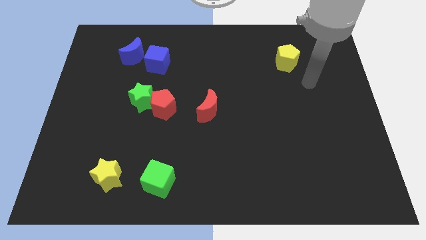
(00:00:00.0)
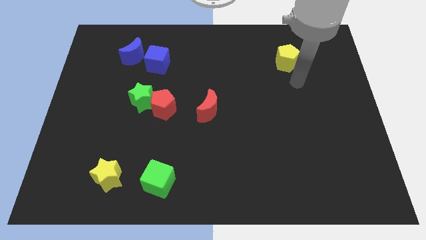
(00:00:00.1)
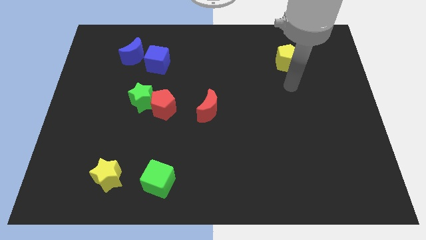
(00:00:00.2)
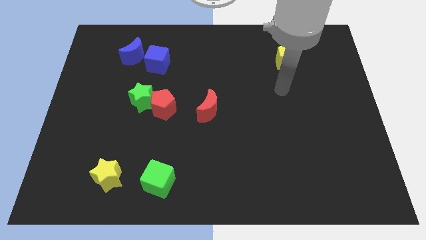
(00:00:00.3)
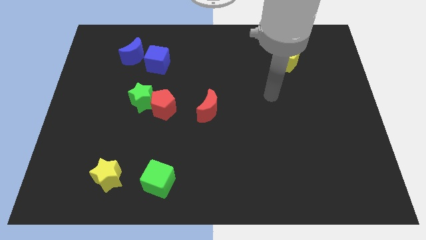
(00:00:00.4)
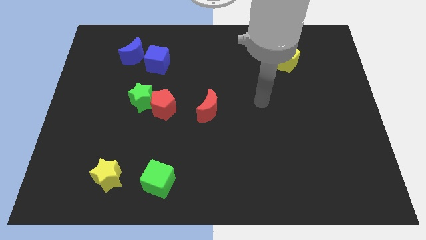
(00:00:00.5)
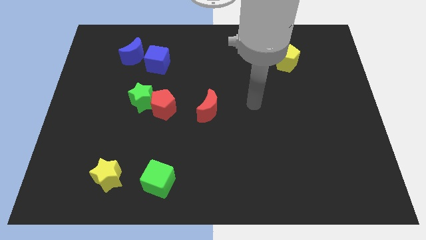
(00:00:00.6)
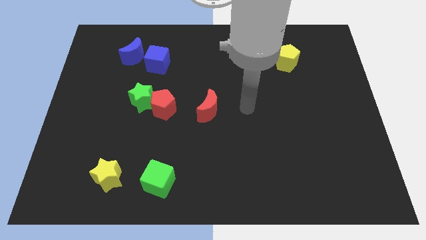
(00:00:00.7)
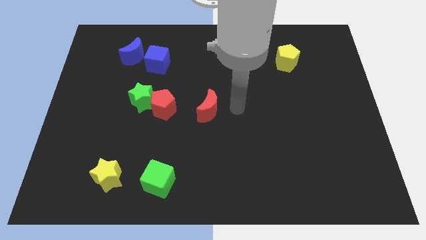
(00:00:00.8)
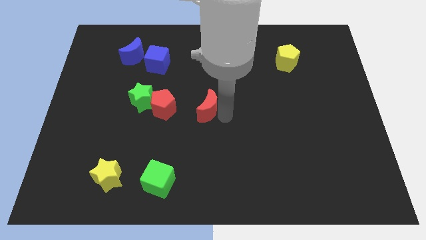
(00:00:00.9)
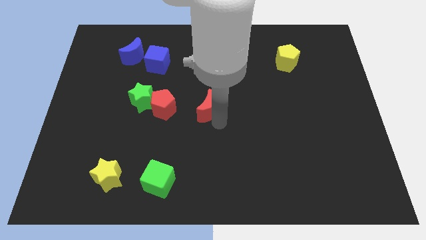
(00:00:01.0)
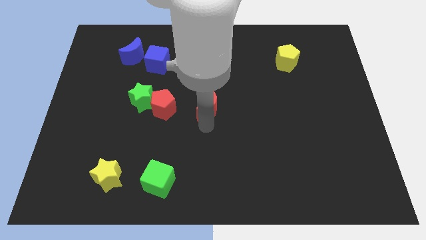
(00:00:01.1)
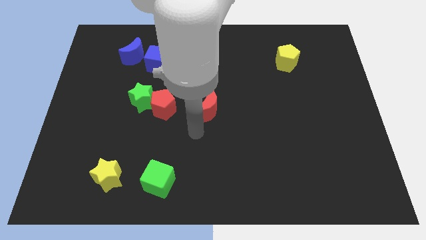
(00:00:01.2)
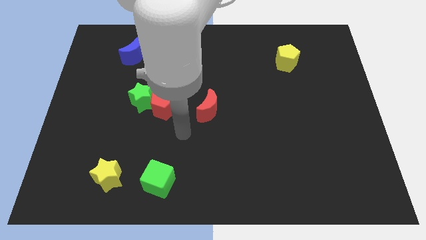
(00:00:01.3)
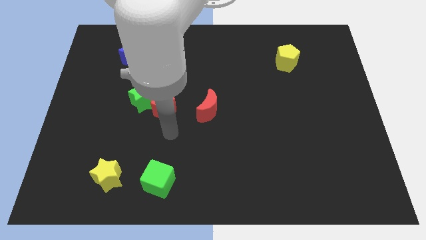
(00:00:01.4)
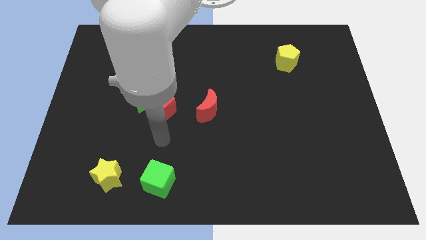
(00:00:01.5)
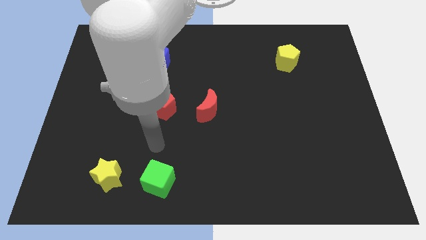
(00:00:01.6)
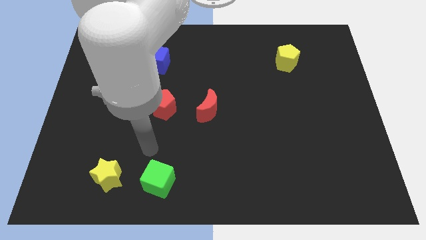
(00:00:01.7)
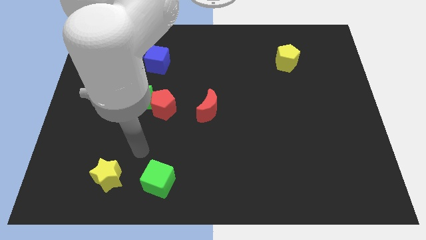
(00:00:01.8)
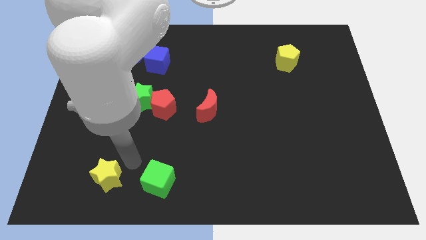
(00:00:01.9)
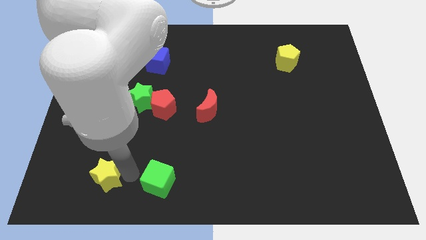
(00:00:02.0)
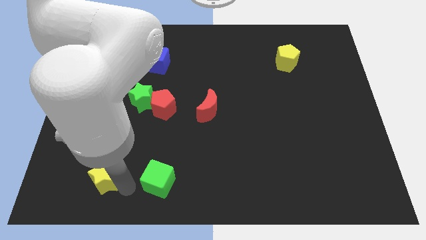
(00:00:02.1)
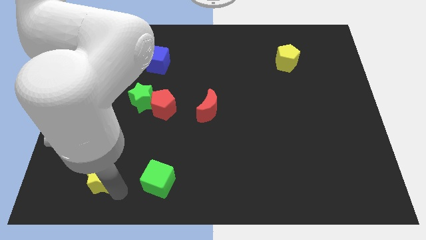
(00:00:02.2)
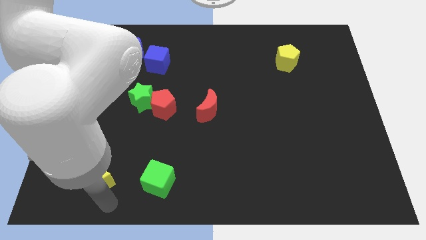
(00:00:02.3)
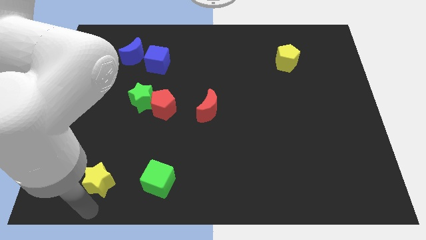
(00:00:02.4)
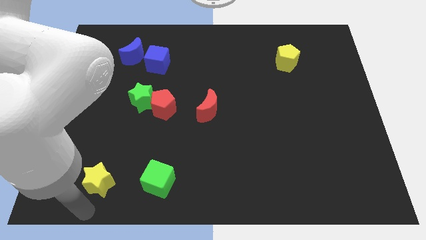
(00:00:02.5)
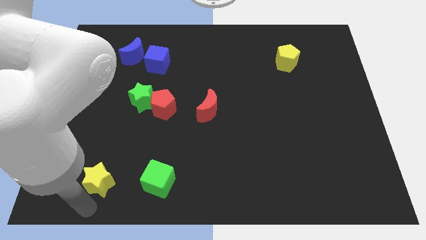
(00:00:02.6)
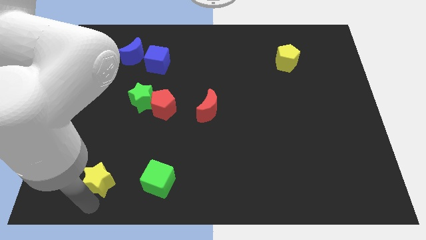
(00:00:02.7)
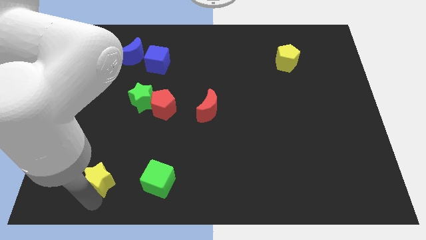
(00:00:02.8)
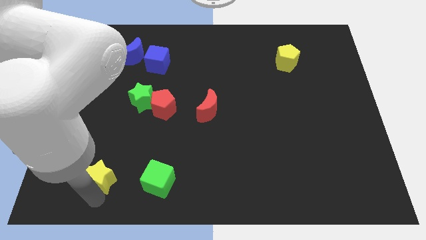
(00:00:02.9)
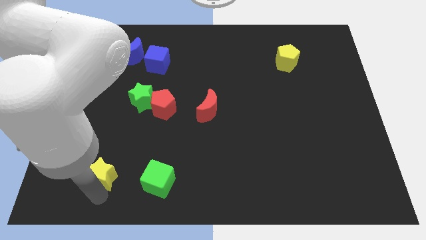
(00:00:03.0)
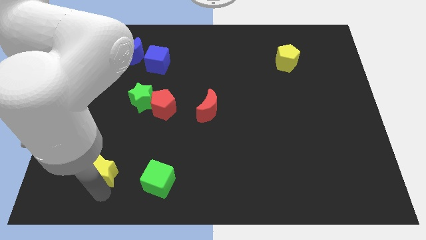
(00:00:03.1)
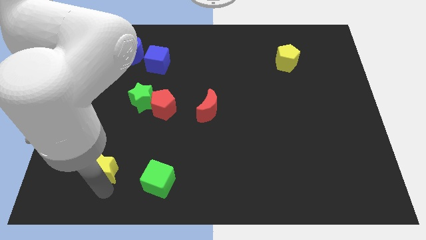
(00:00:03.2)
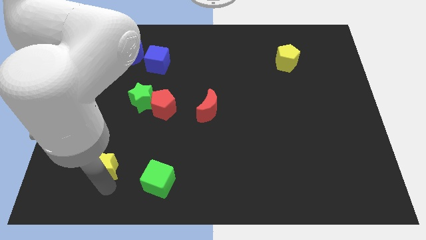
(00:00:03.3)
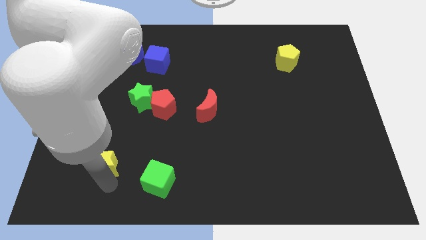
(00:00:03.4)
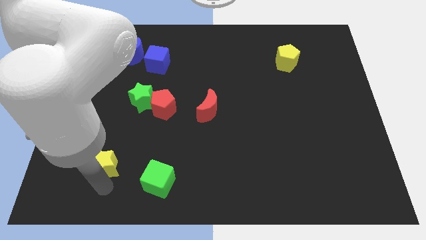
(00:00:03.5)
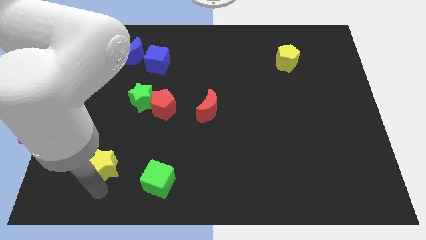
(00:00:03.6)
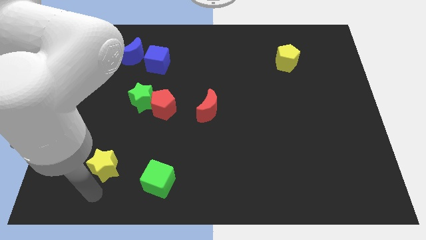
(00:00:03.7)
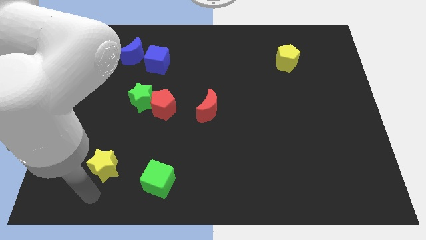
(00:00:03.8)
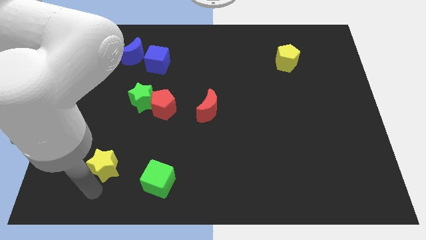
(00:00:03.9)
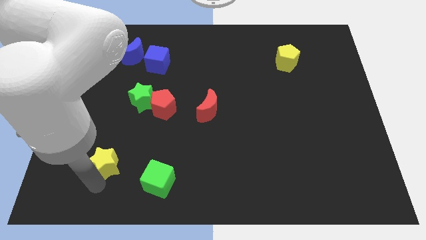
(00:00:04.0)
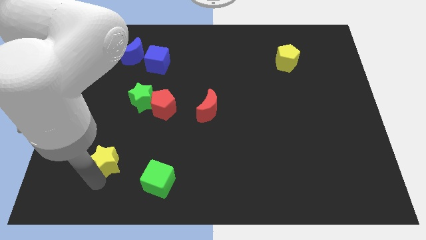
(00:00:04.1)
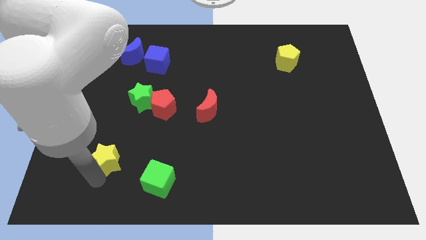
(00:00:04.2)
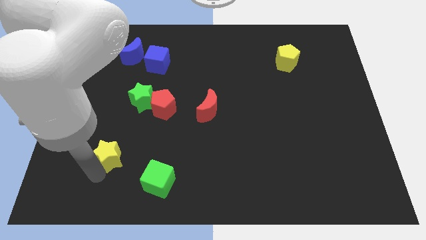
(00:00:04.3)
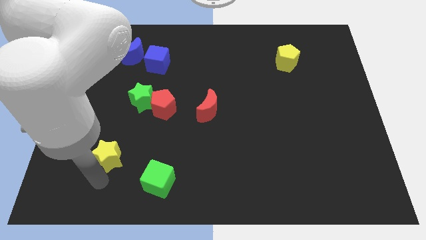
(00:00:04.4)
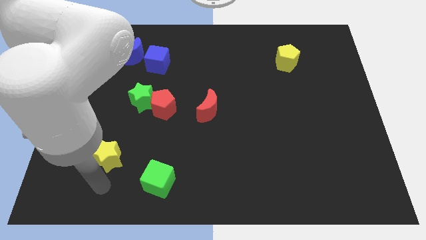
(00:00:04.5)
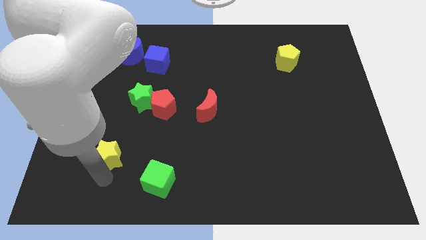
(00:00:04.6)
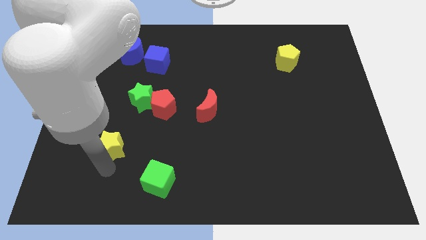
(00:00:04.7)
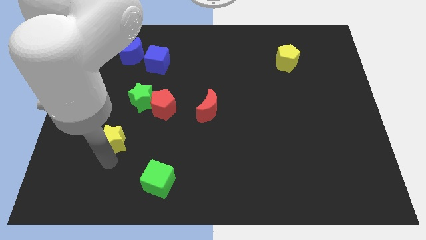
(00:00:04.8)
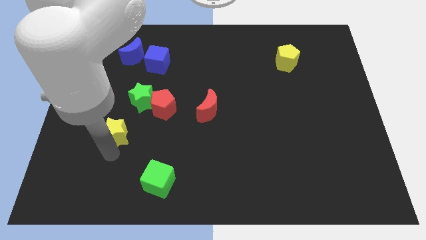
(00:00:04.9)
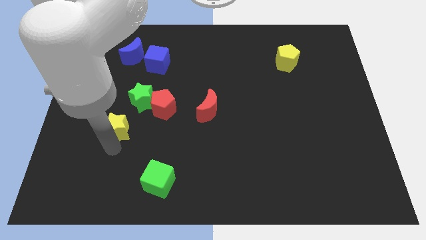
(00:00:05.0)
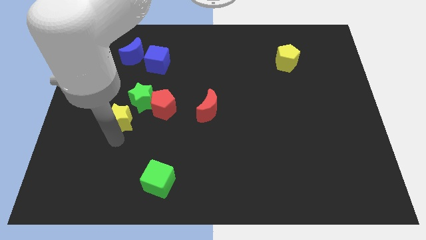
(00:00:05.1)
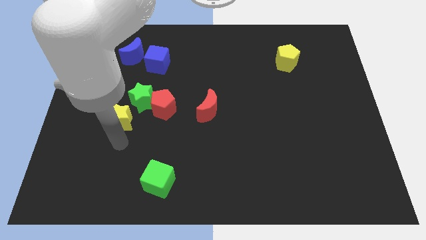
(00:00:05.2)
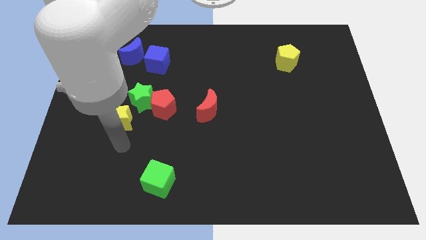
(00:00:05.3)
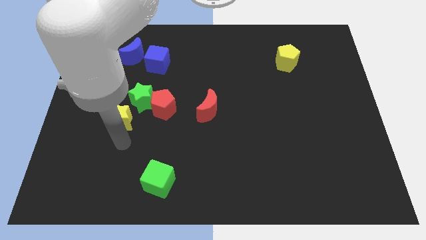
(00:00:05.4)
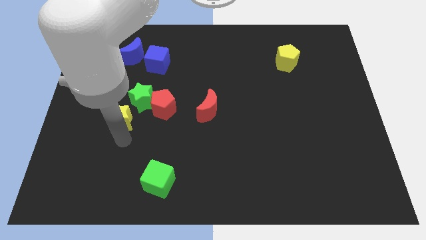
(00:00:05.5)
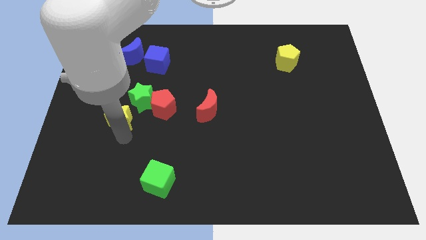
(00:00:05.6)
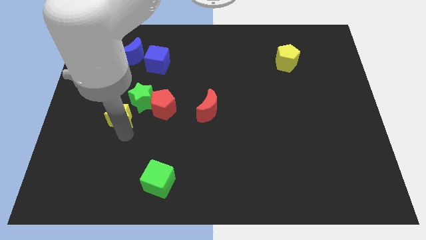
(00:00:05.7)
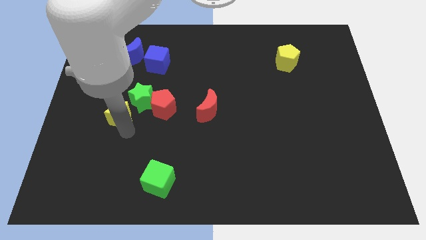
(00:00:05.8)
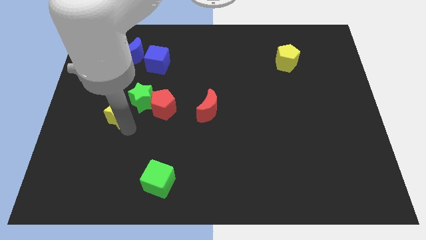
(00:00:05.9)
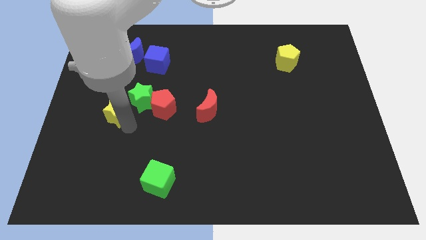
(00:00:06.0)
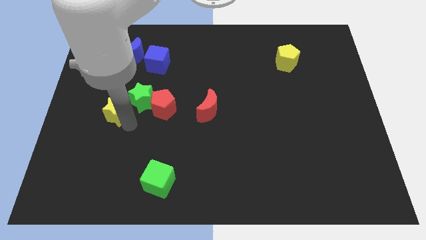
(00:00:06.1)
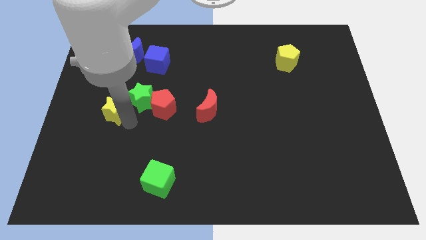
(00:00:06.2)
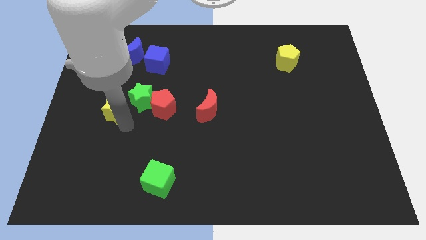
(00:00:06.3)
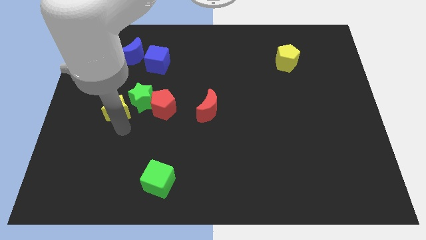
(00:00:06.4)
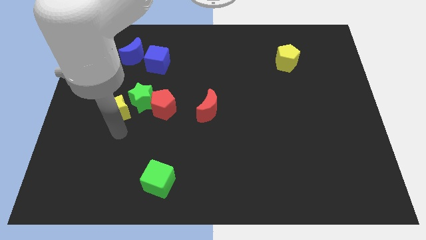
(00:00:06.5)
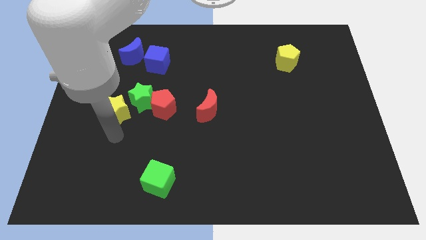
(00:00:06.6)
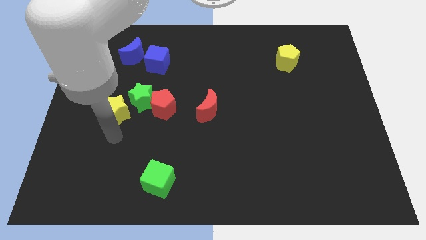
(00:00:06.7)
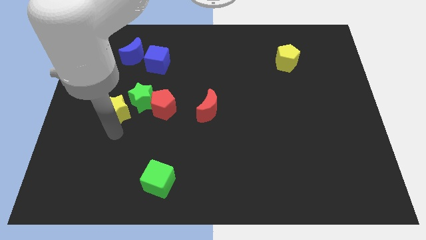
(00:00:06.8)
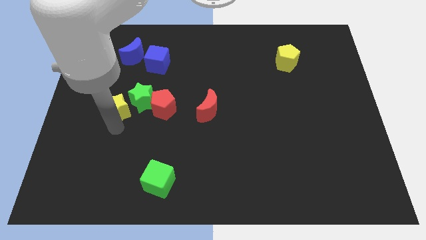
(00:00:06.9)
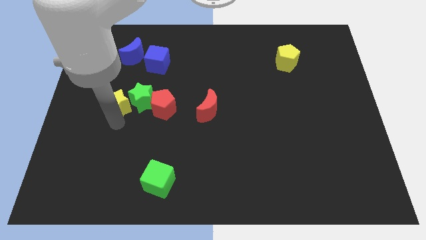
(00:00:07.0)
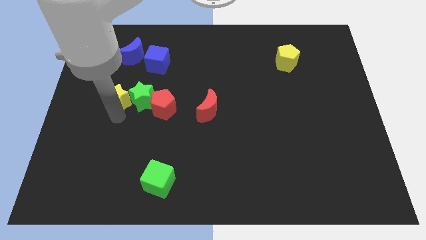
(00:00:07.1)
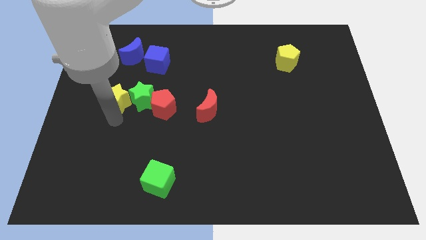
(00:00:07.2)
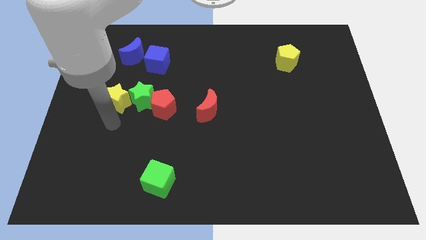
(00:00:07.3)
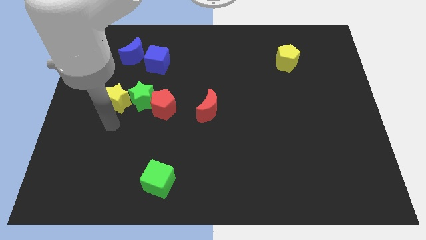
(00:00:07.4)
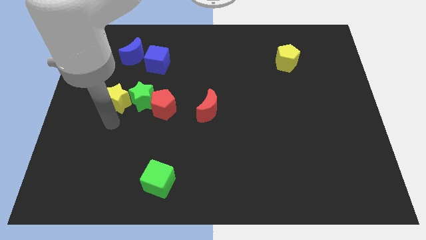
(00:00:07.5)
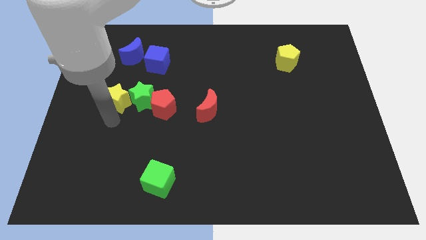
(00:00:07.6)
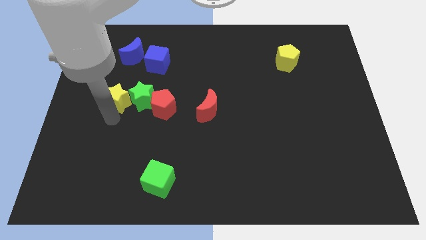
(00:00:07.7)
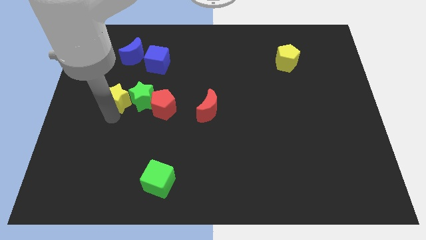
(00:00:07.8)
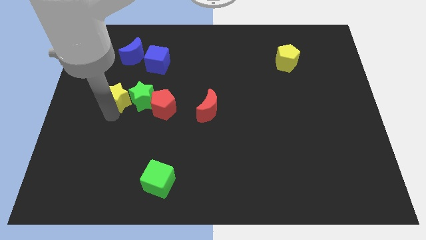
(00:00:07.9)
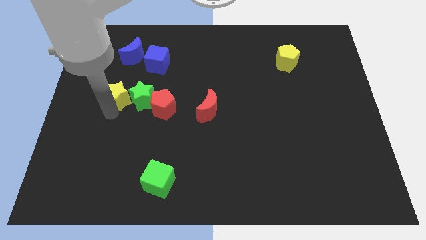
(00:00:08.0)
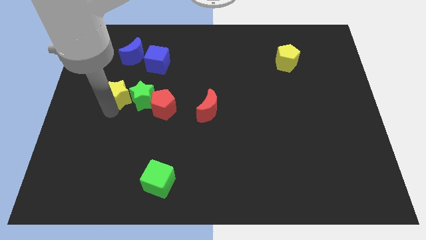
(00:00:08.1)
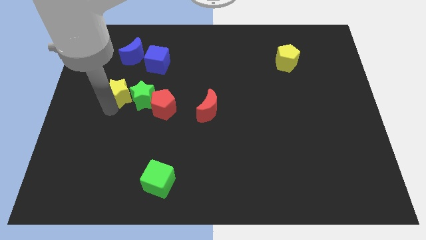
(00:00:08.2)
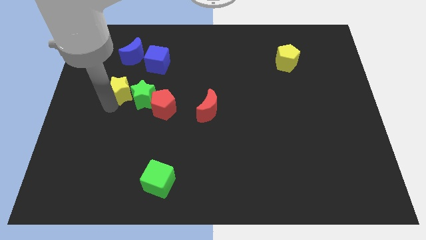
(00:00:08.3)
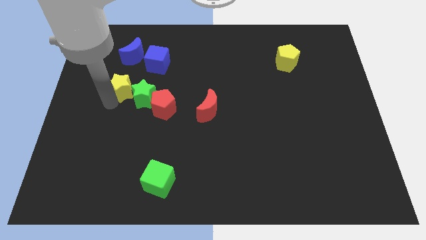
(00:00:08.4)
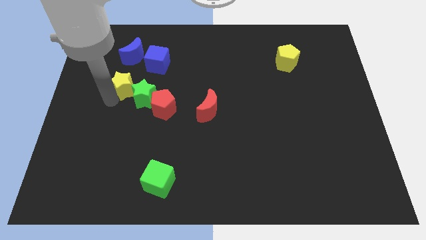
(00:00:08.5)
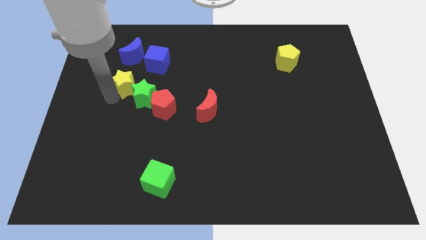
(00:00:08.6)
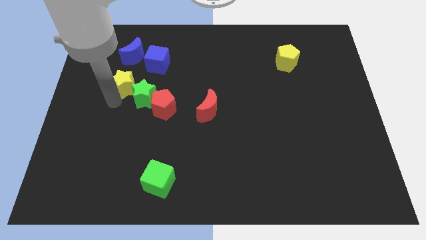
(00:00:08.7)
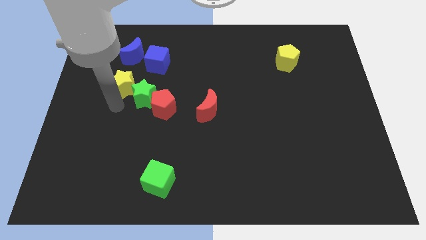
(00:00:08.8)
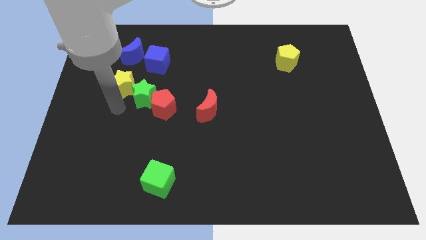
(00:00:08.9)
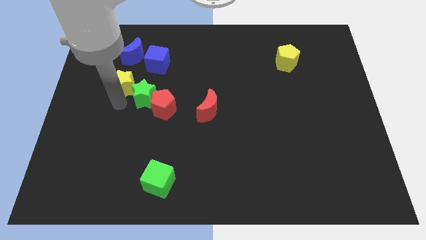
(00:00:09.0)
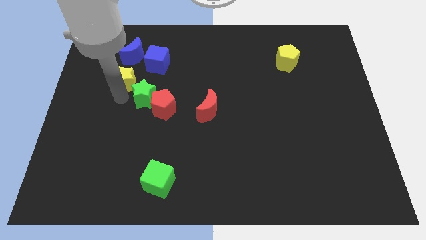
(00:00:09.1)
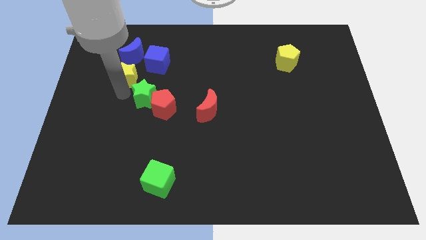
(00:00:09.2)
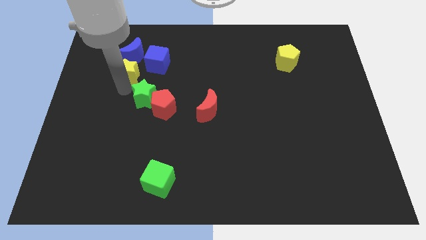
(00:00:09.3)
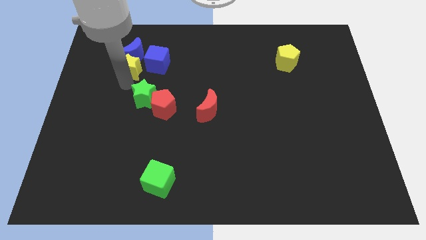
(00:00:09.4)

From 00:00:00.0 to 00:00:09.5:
push the yellow star next to the blue moon
